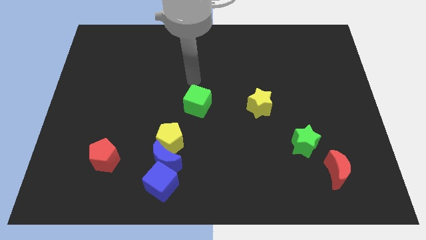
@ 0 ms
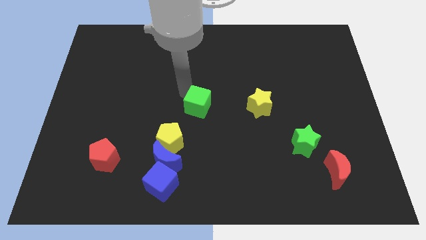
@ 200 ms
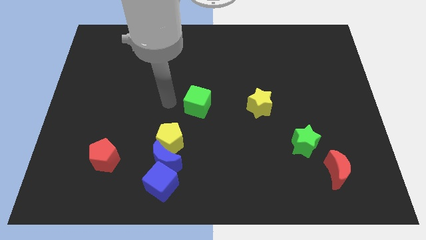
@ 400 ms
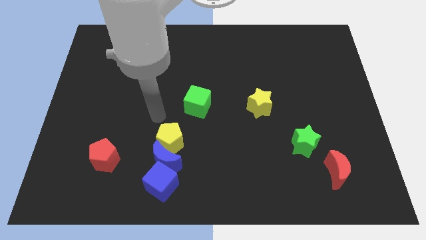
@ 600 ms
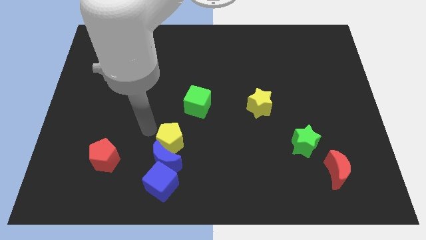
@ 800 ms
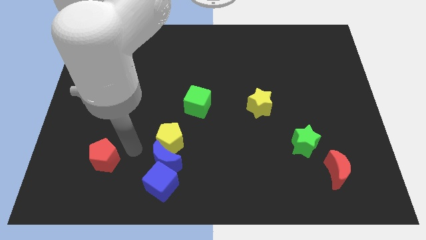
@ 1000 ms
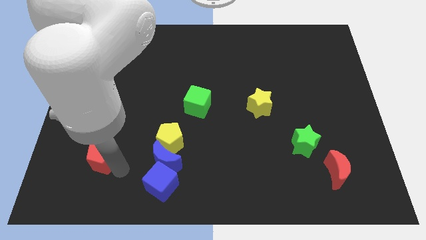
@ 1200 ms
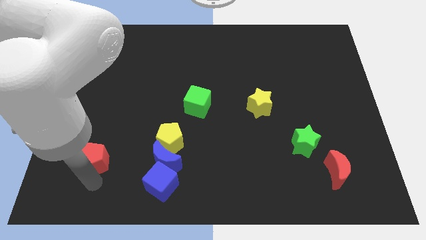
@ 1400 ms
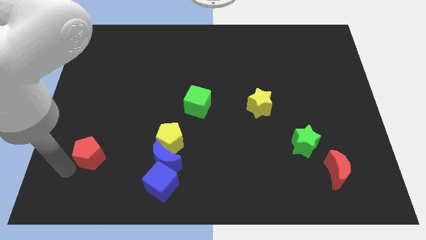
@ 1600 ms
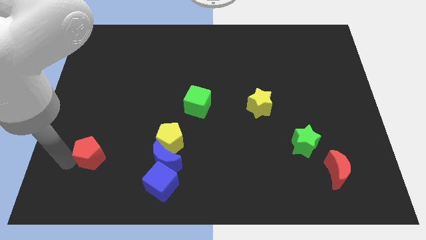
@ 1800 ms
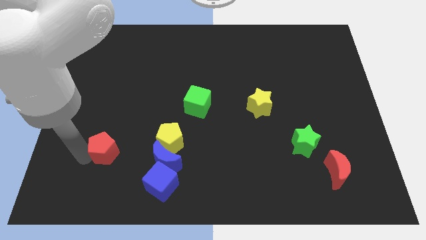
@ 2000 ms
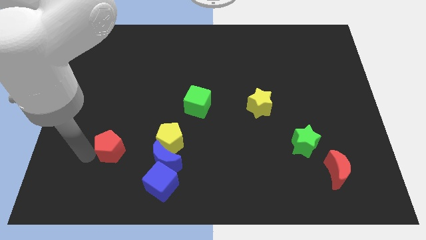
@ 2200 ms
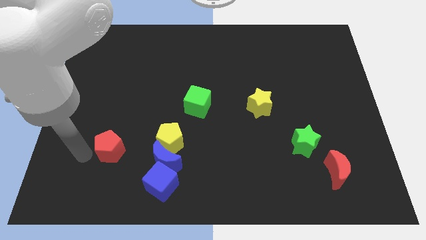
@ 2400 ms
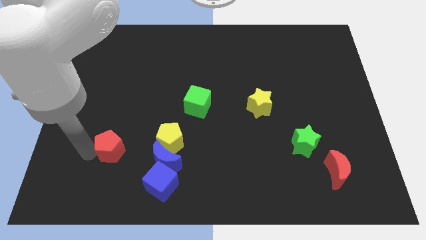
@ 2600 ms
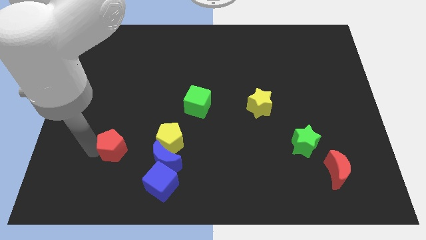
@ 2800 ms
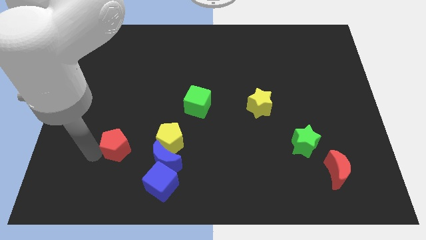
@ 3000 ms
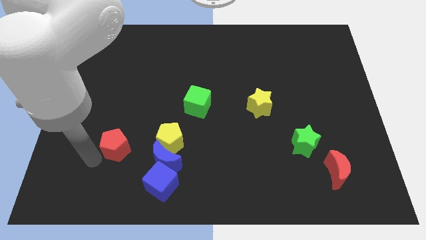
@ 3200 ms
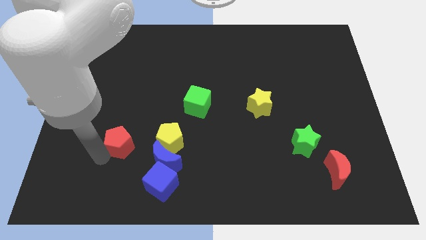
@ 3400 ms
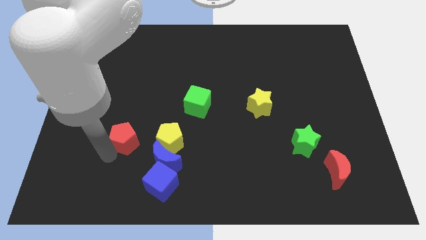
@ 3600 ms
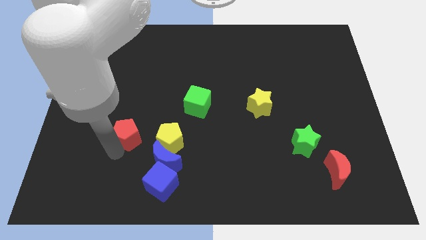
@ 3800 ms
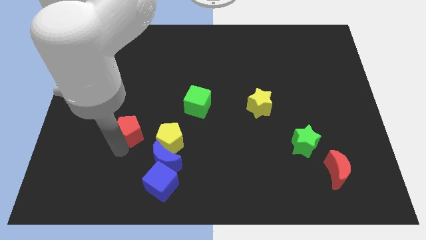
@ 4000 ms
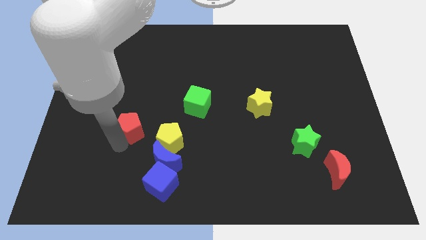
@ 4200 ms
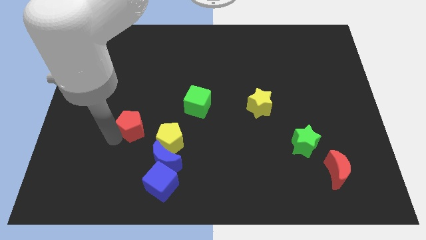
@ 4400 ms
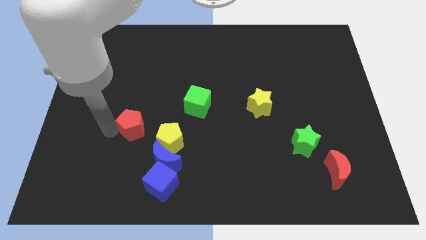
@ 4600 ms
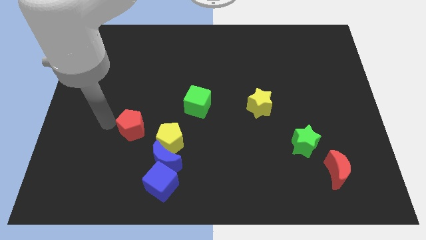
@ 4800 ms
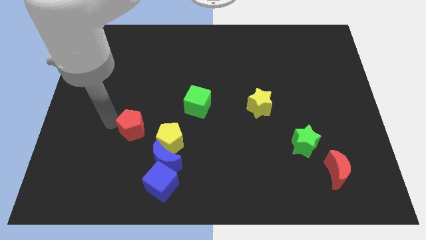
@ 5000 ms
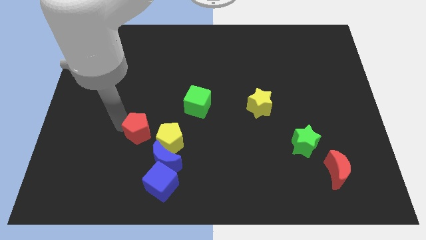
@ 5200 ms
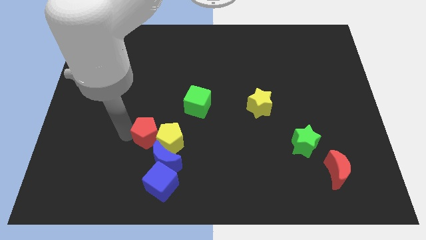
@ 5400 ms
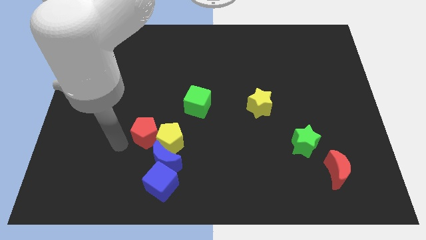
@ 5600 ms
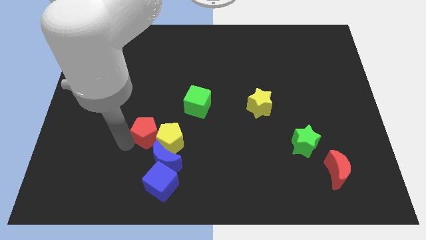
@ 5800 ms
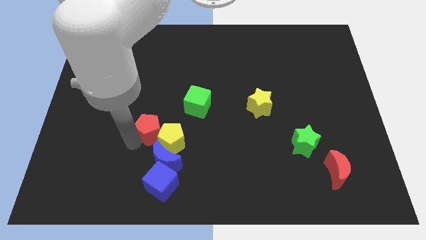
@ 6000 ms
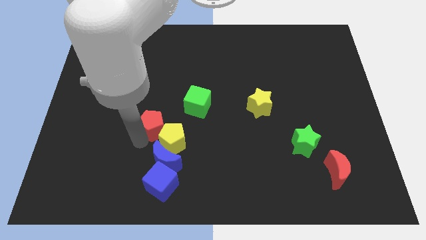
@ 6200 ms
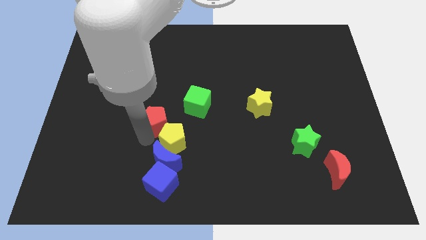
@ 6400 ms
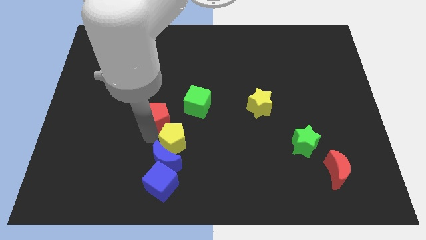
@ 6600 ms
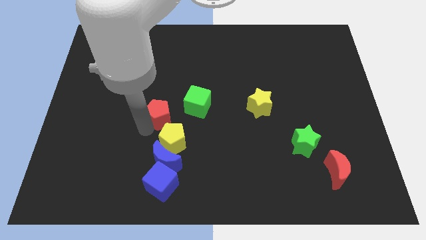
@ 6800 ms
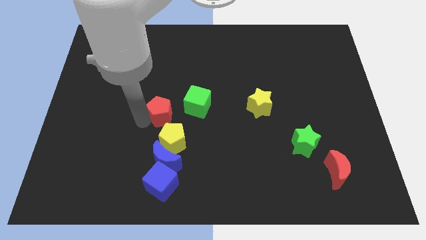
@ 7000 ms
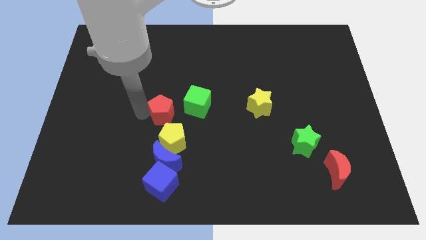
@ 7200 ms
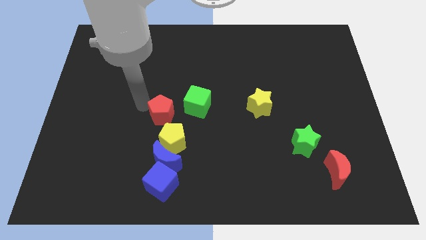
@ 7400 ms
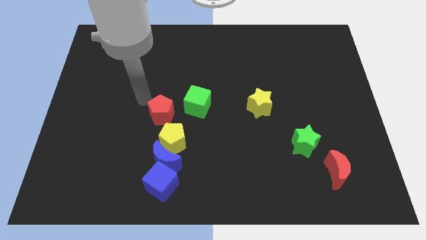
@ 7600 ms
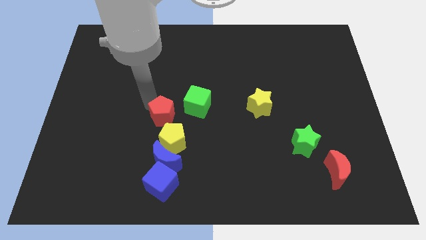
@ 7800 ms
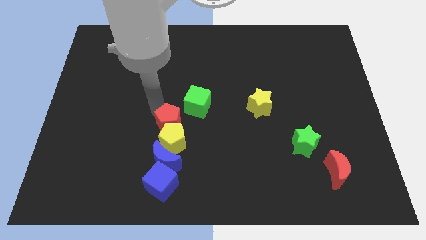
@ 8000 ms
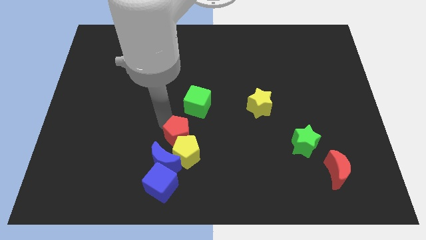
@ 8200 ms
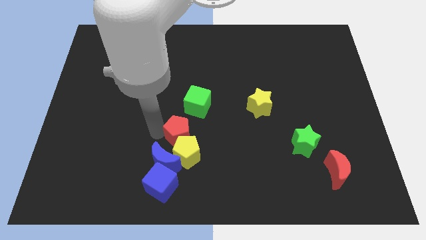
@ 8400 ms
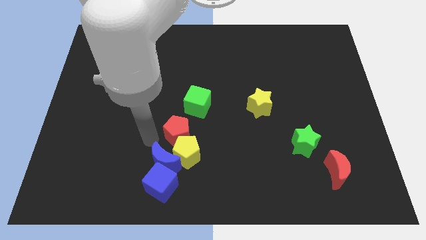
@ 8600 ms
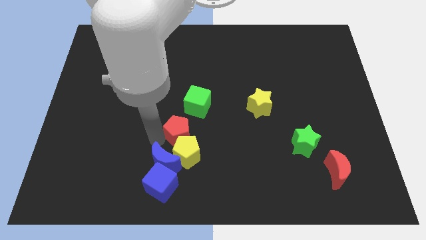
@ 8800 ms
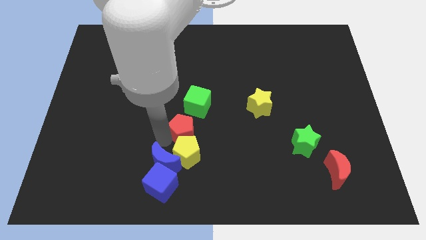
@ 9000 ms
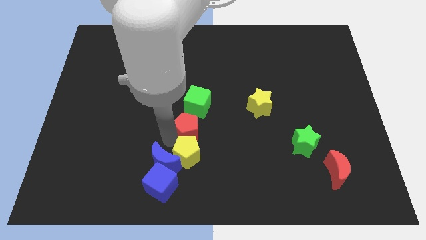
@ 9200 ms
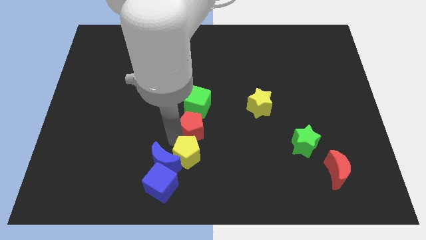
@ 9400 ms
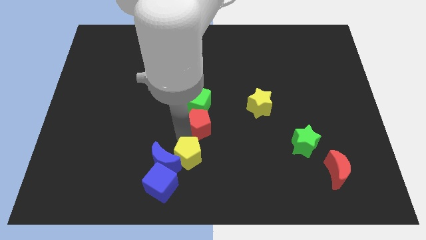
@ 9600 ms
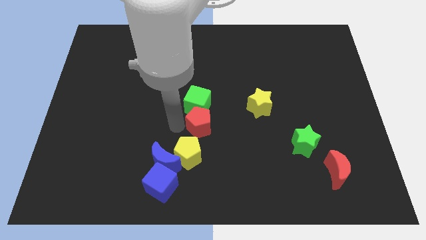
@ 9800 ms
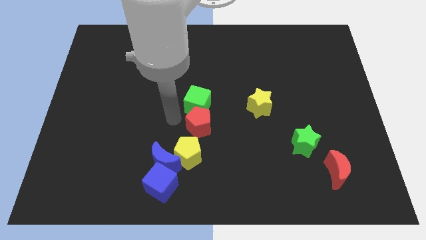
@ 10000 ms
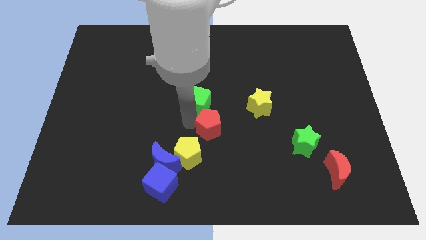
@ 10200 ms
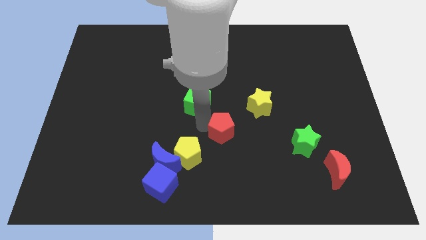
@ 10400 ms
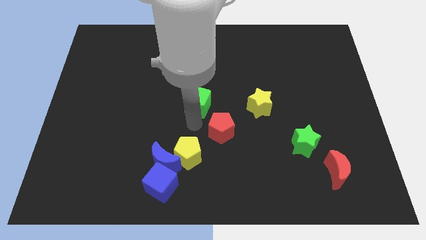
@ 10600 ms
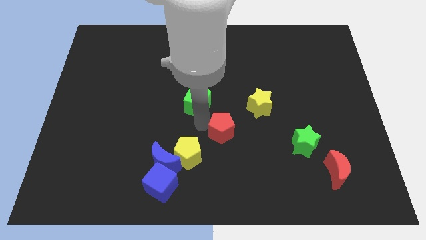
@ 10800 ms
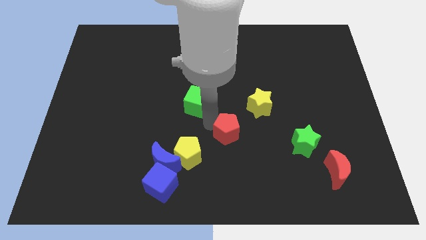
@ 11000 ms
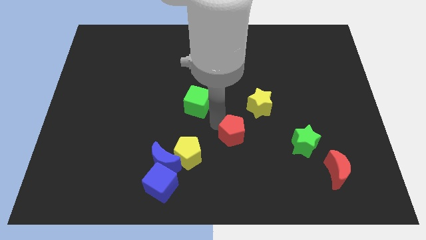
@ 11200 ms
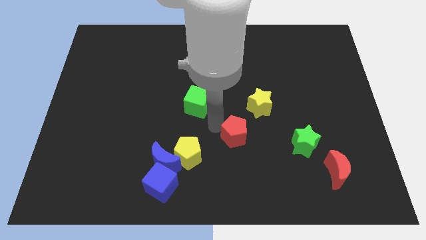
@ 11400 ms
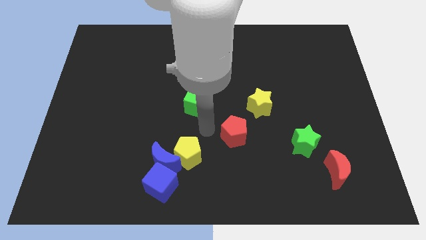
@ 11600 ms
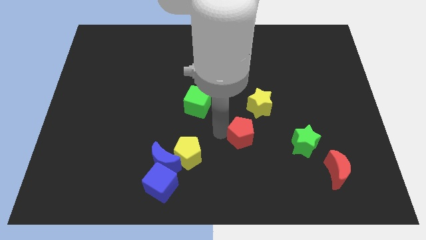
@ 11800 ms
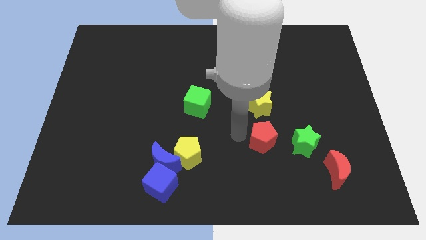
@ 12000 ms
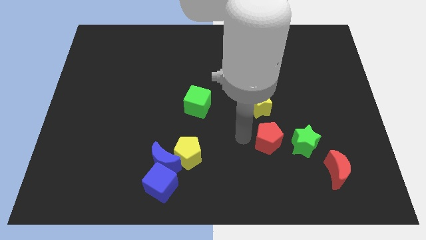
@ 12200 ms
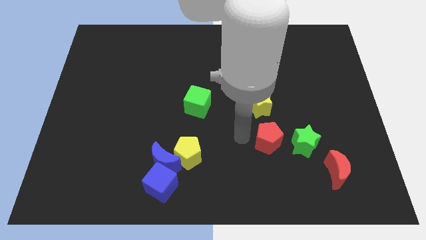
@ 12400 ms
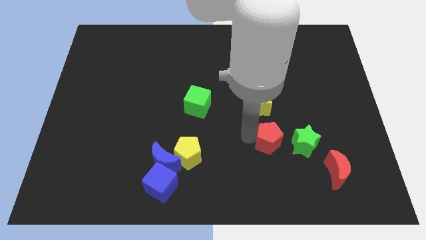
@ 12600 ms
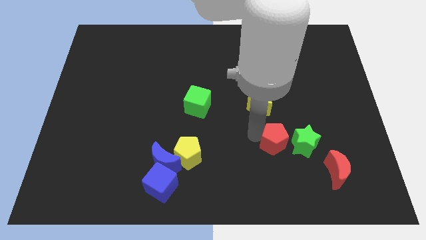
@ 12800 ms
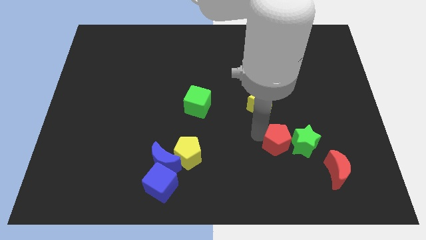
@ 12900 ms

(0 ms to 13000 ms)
push the red pentagon towards the green star

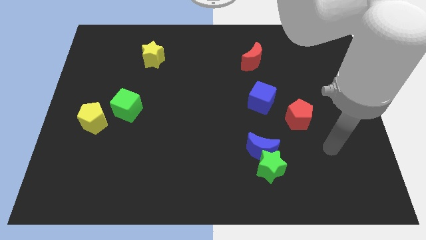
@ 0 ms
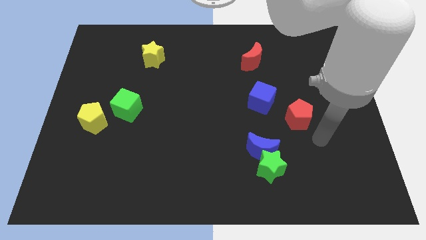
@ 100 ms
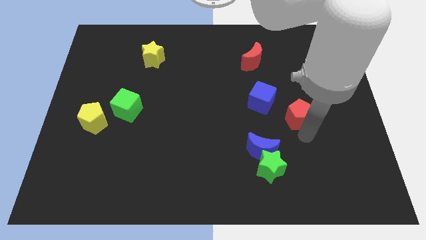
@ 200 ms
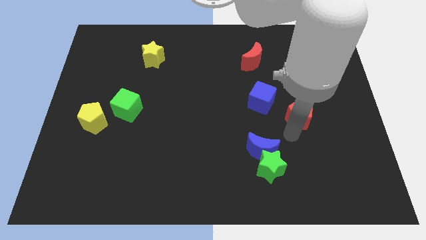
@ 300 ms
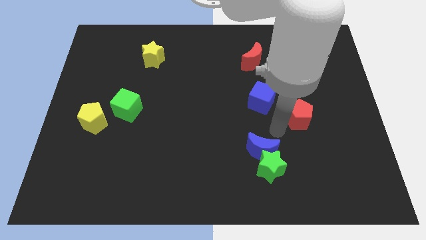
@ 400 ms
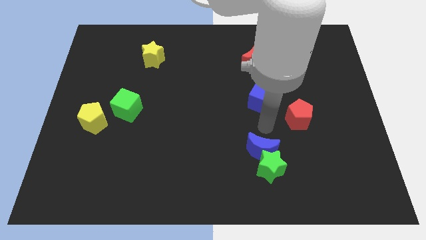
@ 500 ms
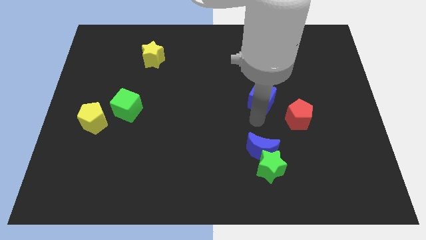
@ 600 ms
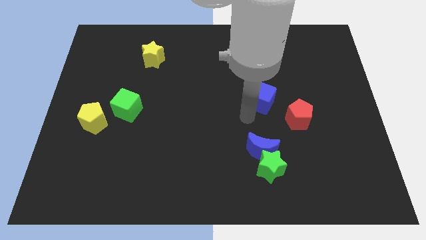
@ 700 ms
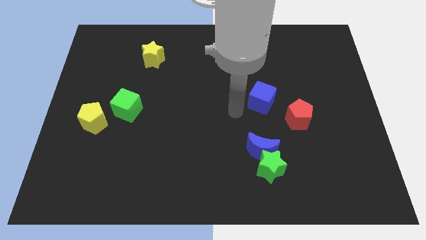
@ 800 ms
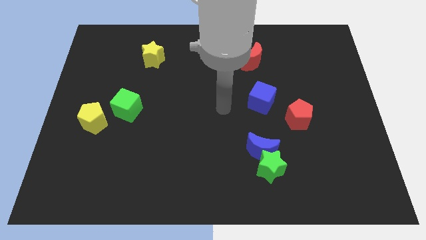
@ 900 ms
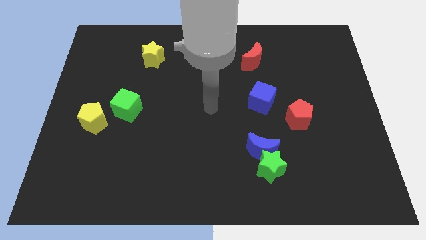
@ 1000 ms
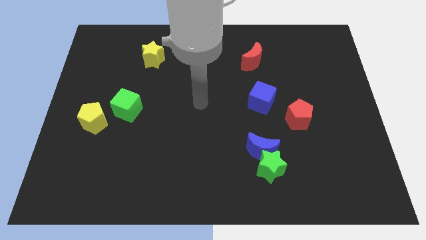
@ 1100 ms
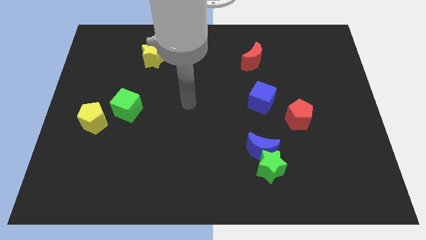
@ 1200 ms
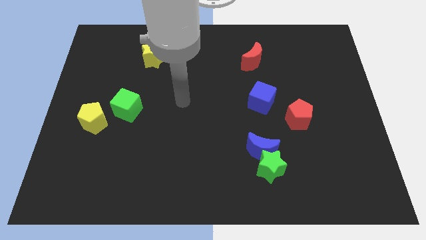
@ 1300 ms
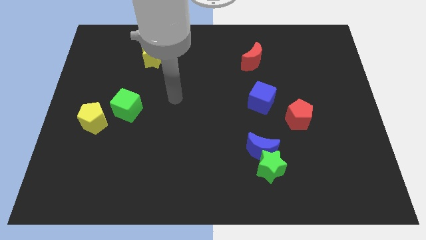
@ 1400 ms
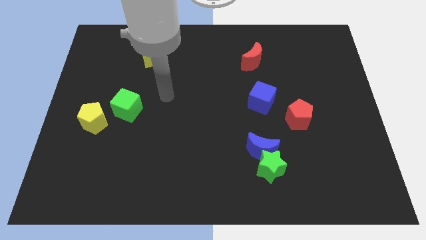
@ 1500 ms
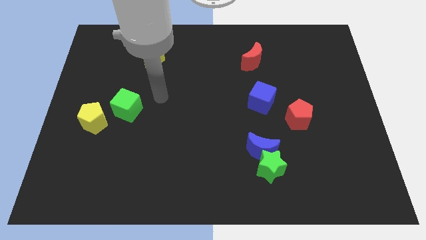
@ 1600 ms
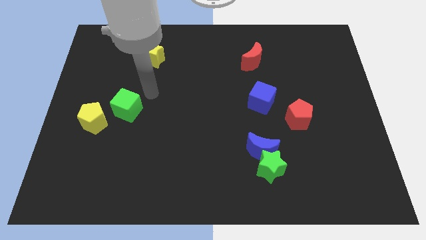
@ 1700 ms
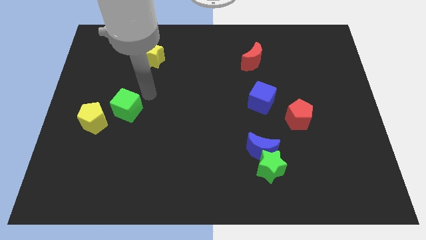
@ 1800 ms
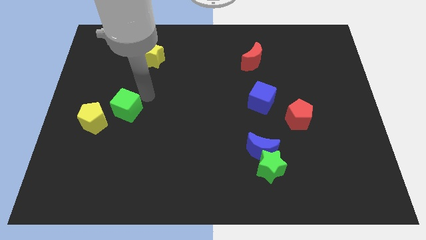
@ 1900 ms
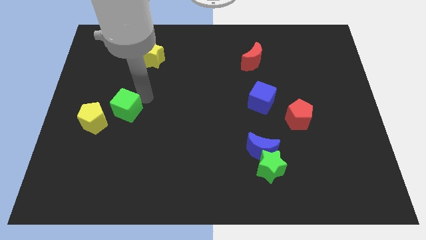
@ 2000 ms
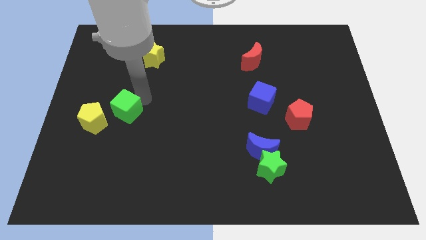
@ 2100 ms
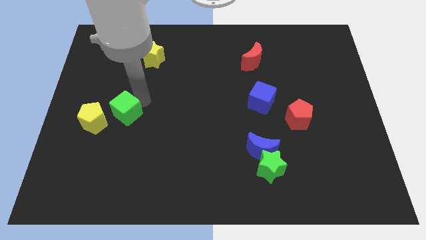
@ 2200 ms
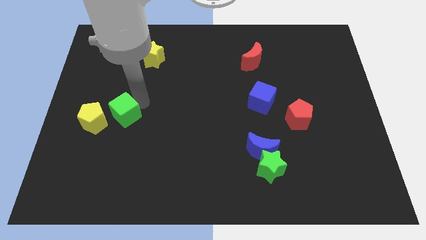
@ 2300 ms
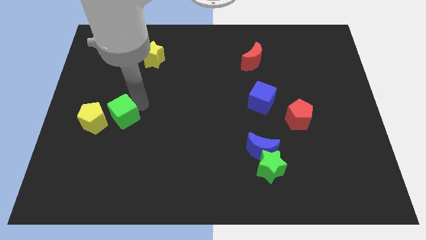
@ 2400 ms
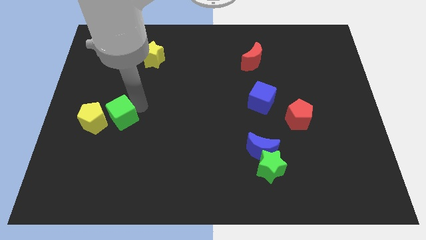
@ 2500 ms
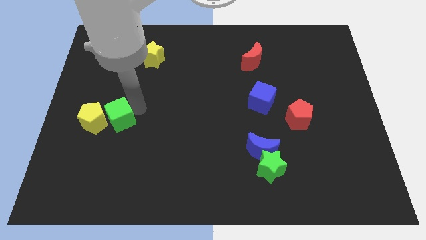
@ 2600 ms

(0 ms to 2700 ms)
move the green cube to the yellow pentagon
